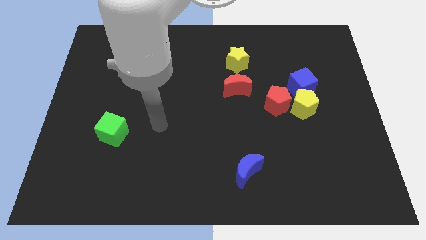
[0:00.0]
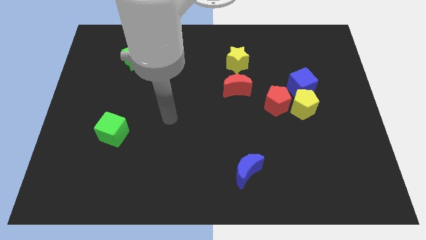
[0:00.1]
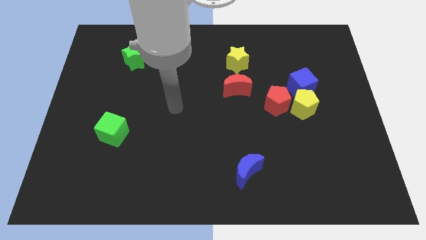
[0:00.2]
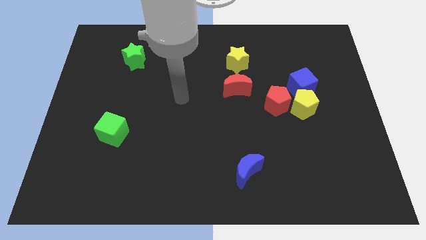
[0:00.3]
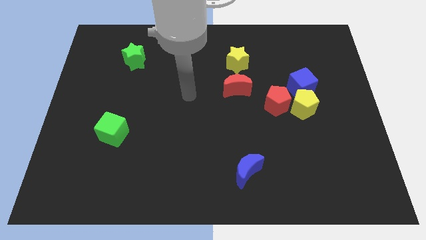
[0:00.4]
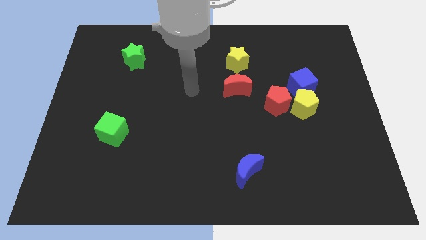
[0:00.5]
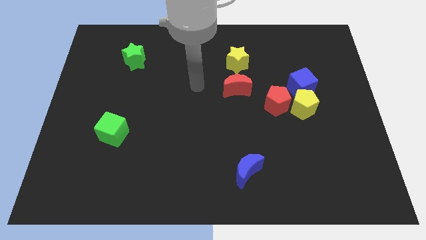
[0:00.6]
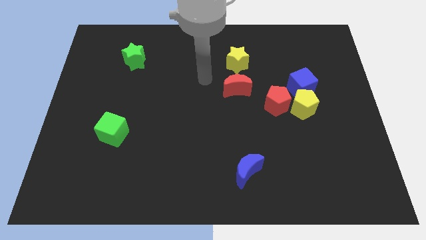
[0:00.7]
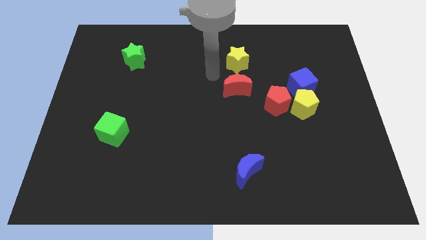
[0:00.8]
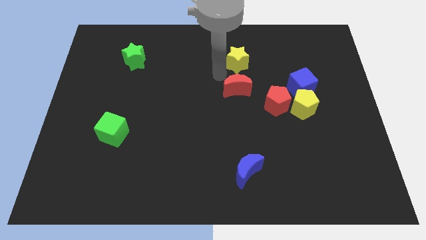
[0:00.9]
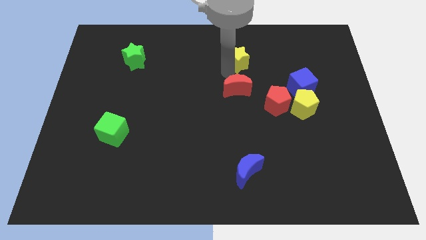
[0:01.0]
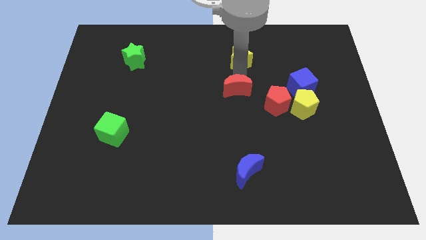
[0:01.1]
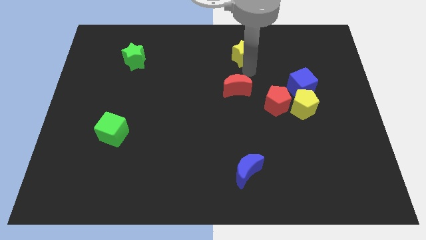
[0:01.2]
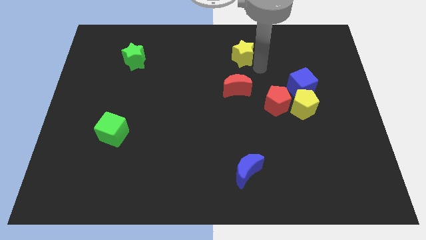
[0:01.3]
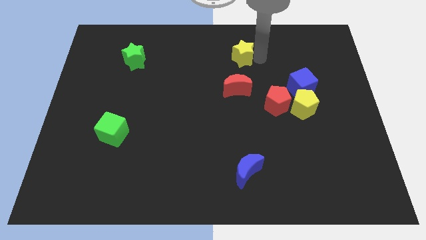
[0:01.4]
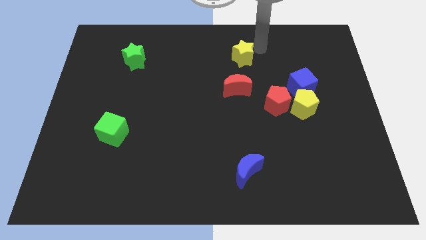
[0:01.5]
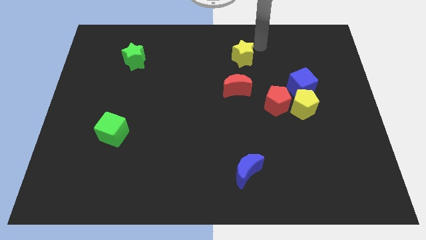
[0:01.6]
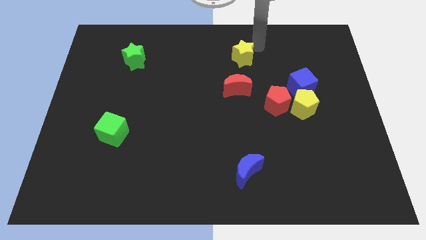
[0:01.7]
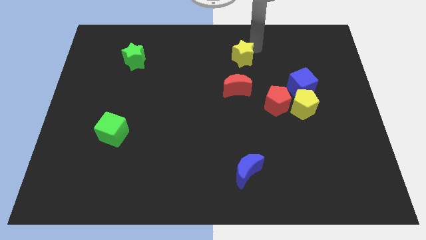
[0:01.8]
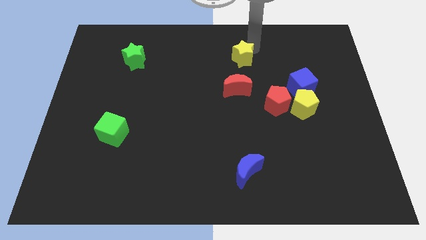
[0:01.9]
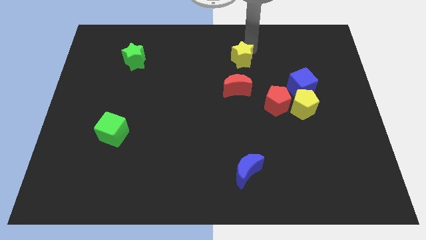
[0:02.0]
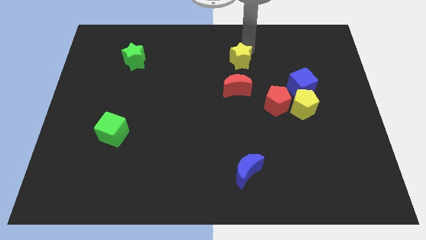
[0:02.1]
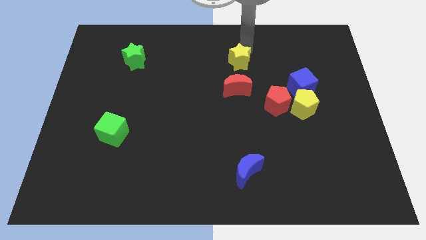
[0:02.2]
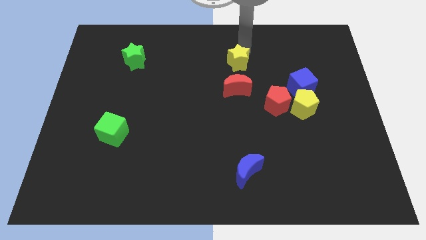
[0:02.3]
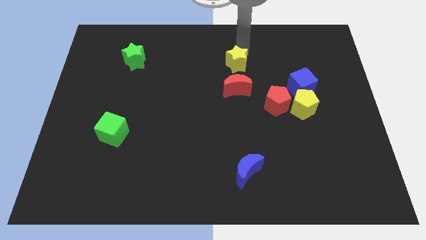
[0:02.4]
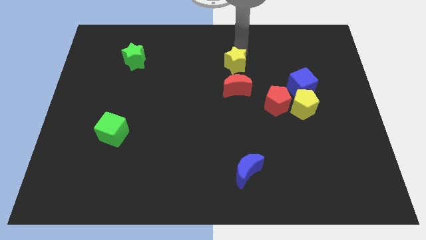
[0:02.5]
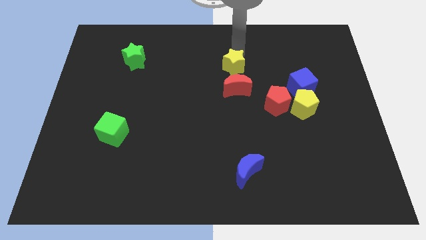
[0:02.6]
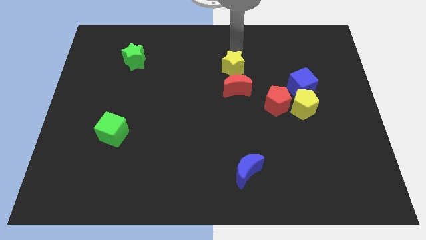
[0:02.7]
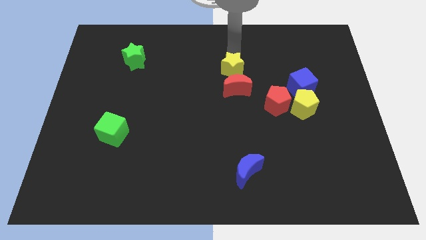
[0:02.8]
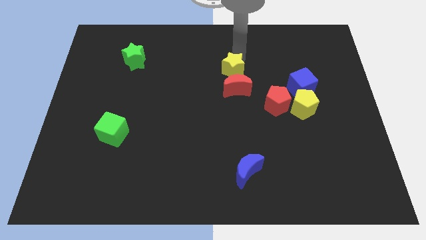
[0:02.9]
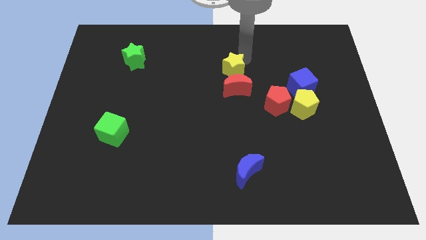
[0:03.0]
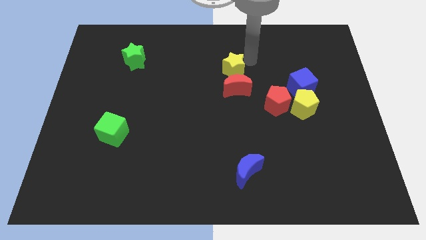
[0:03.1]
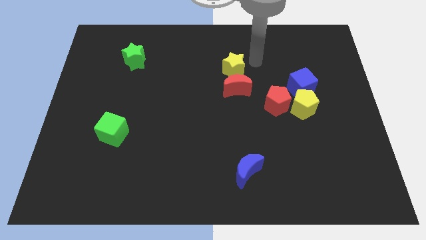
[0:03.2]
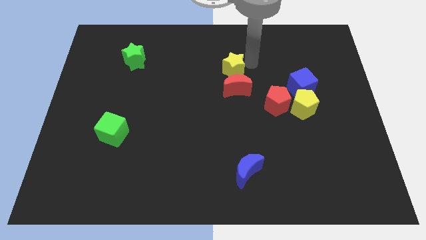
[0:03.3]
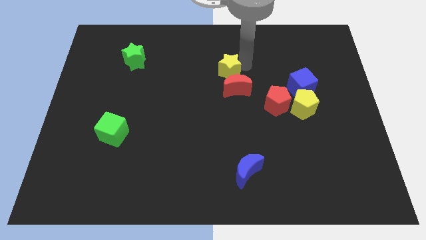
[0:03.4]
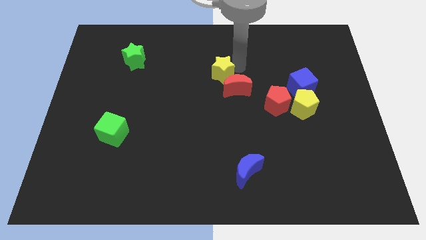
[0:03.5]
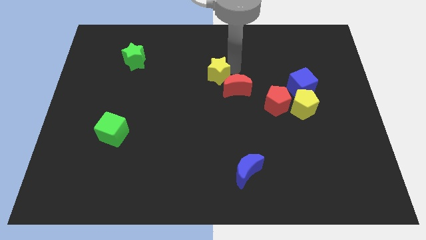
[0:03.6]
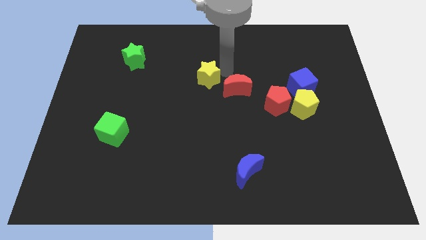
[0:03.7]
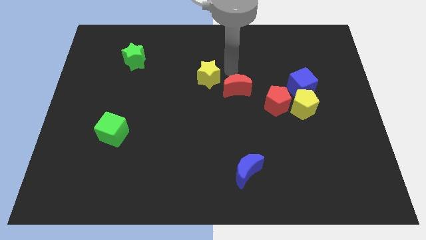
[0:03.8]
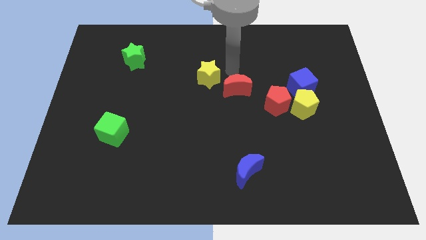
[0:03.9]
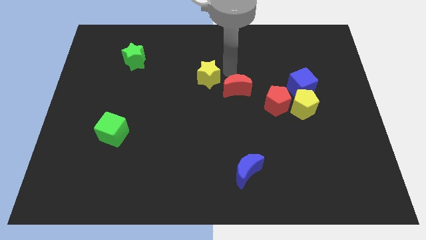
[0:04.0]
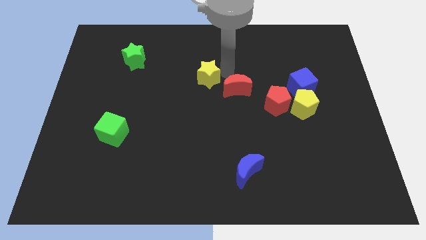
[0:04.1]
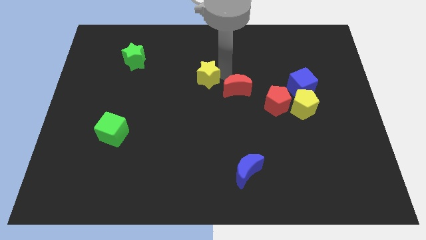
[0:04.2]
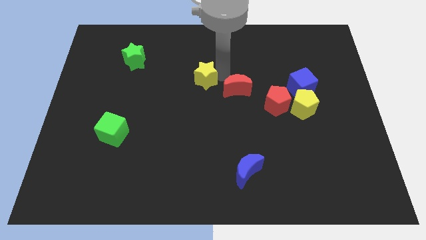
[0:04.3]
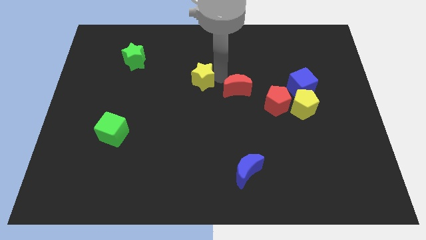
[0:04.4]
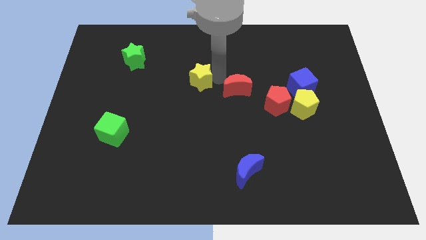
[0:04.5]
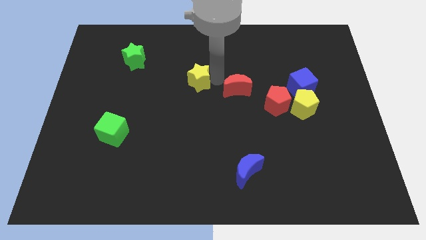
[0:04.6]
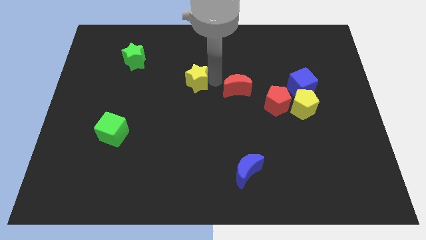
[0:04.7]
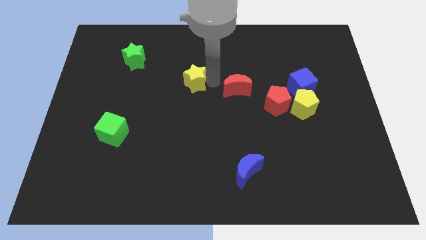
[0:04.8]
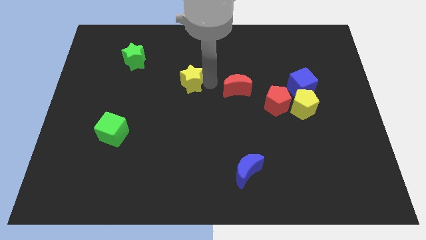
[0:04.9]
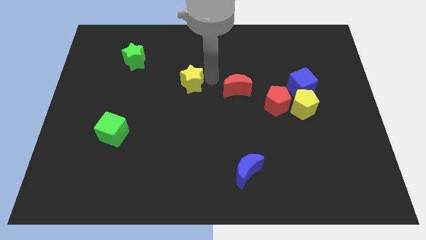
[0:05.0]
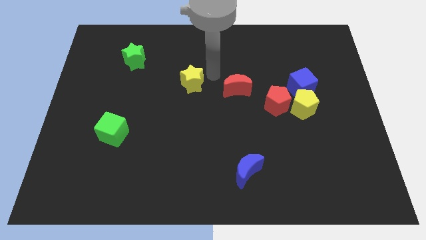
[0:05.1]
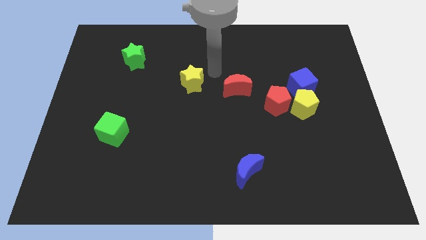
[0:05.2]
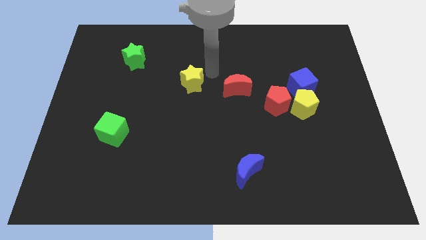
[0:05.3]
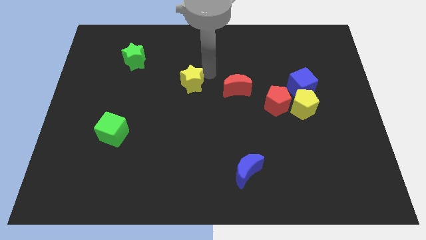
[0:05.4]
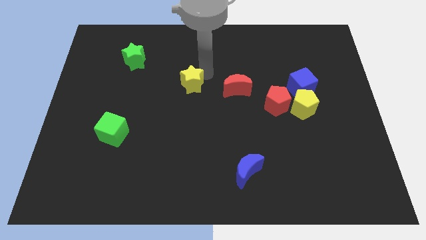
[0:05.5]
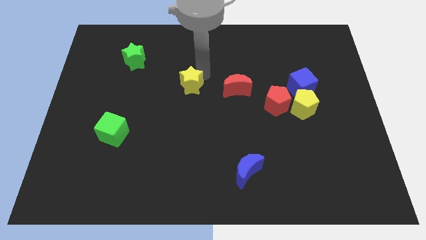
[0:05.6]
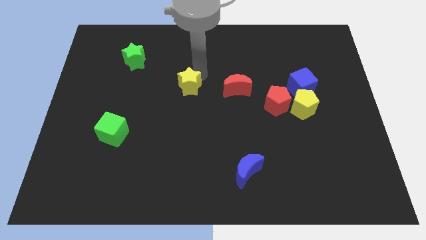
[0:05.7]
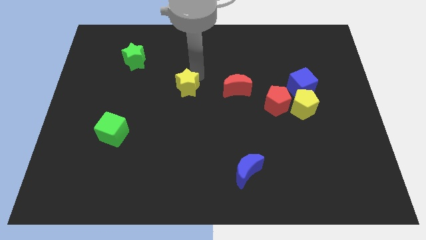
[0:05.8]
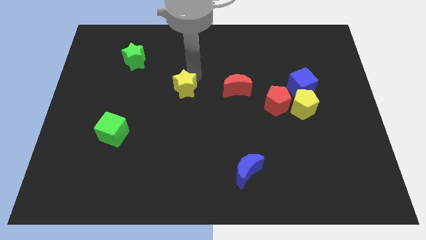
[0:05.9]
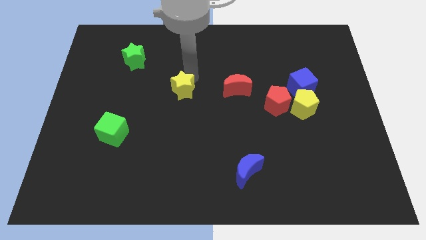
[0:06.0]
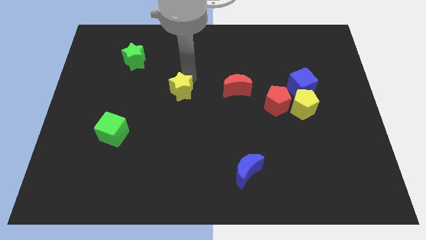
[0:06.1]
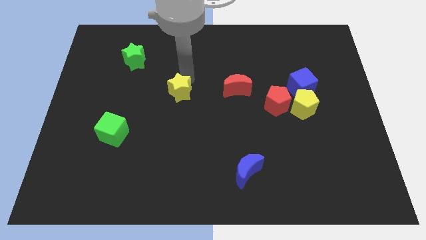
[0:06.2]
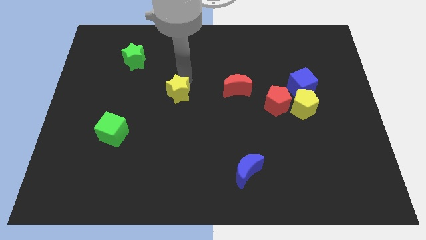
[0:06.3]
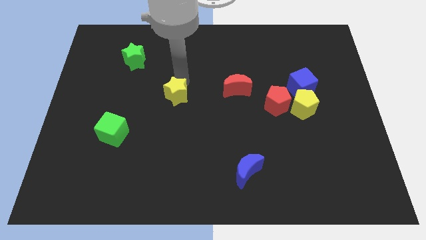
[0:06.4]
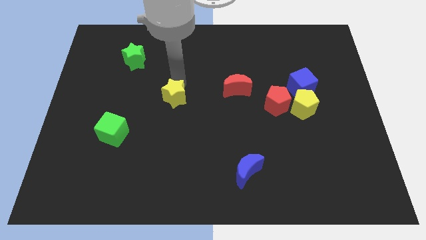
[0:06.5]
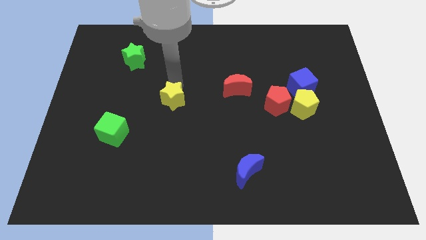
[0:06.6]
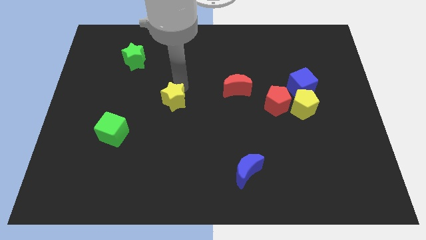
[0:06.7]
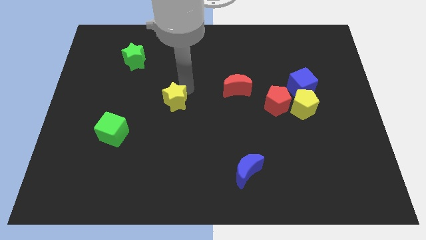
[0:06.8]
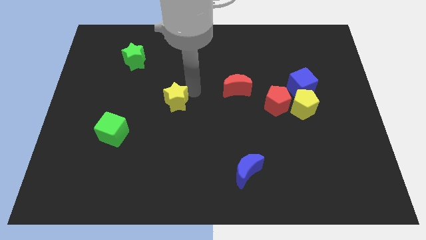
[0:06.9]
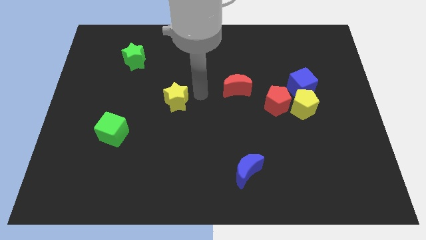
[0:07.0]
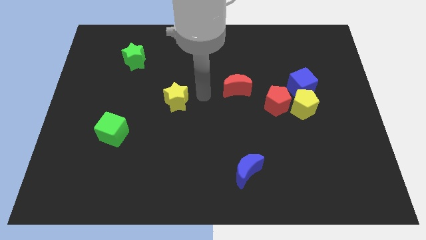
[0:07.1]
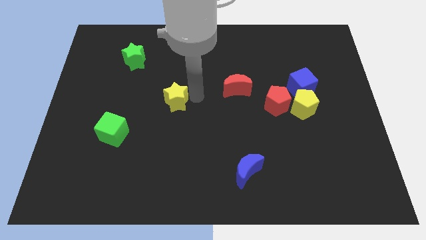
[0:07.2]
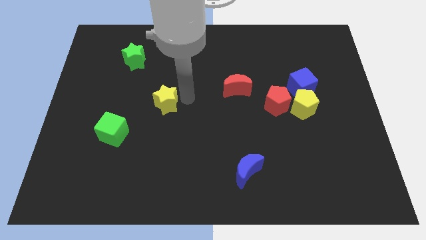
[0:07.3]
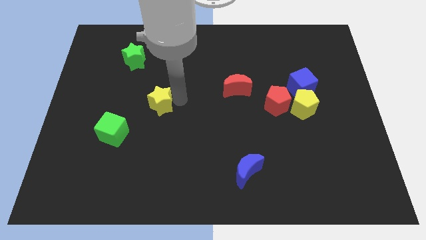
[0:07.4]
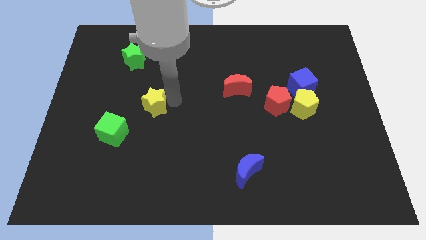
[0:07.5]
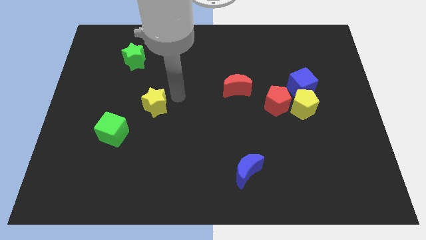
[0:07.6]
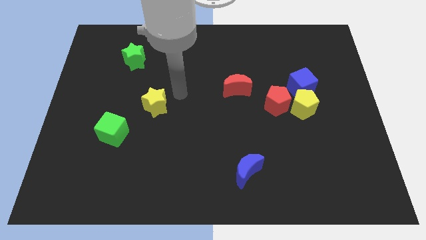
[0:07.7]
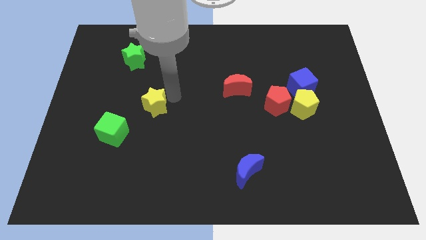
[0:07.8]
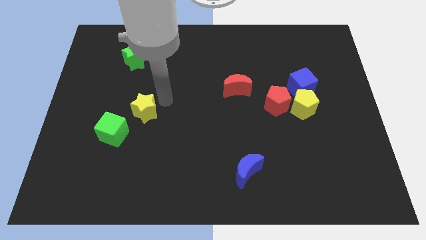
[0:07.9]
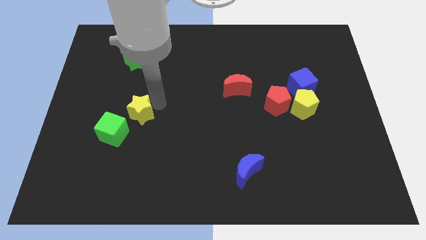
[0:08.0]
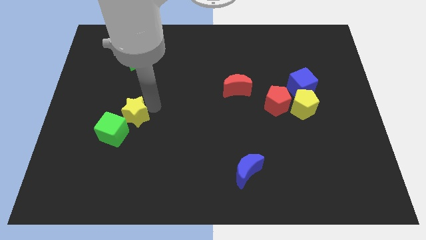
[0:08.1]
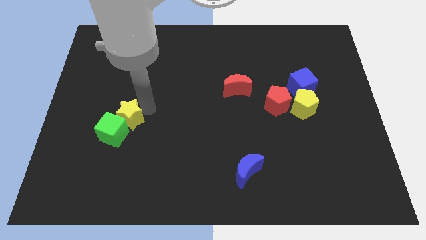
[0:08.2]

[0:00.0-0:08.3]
move the yellow star to the green cube
